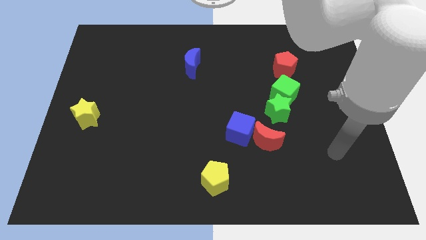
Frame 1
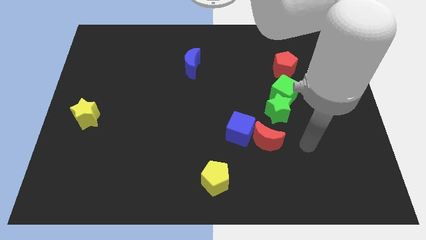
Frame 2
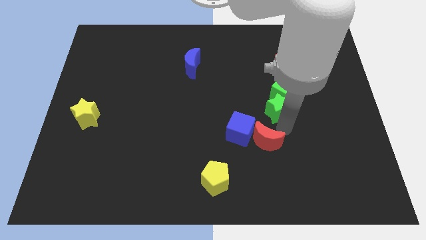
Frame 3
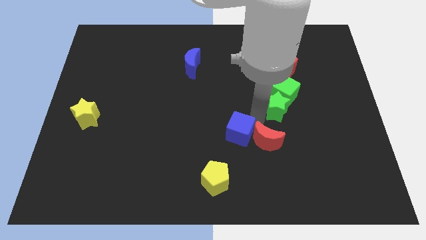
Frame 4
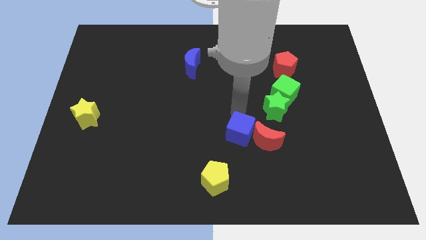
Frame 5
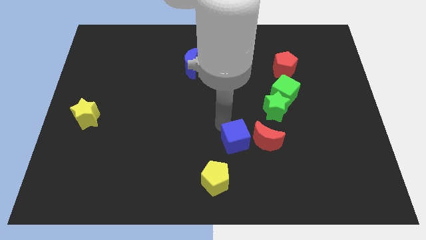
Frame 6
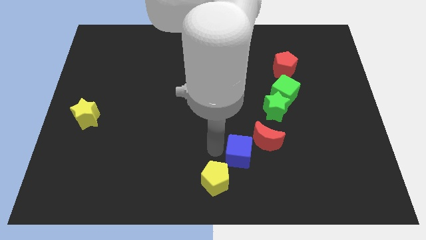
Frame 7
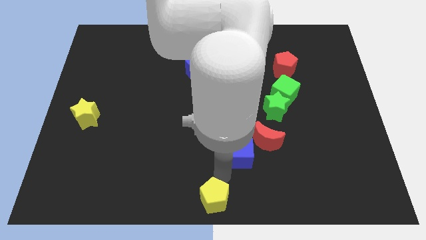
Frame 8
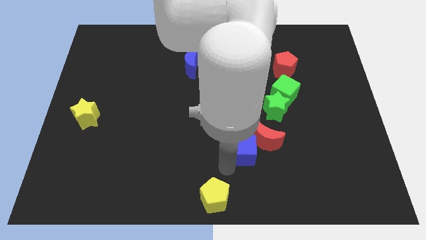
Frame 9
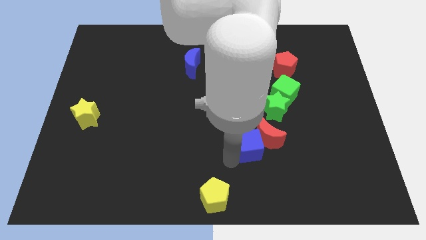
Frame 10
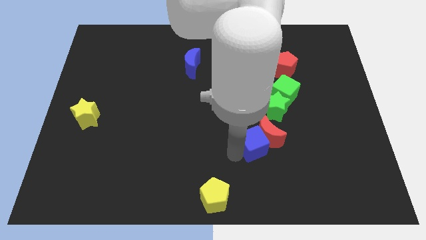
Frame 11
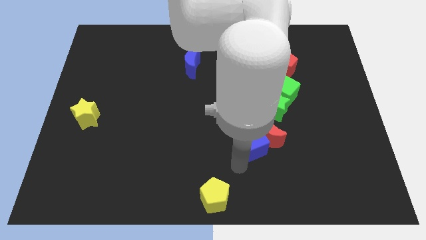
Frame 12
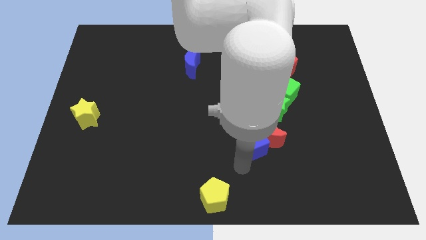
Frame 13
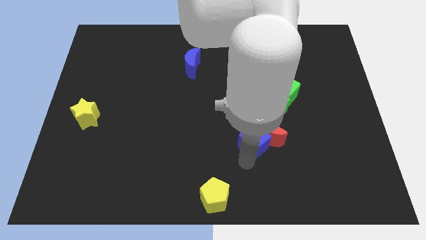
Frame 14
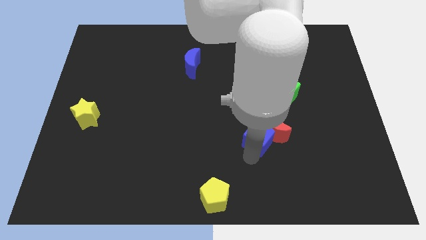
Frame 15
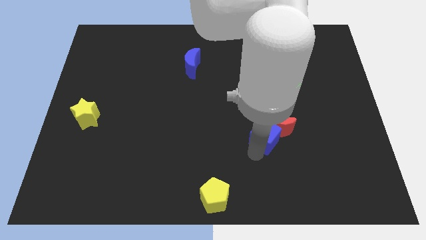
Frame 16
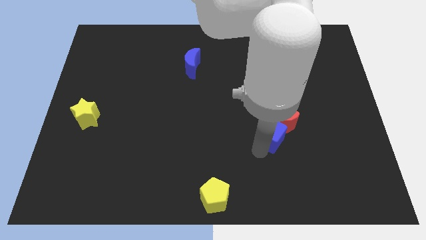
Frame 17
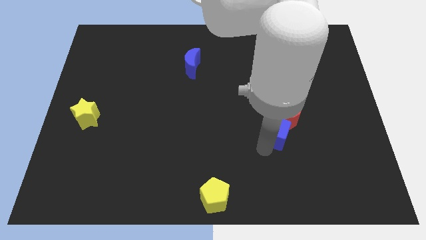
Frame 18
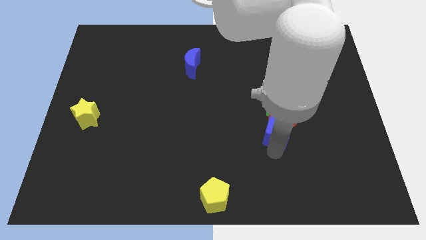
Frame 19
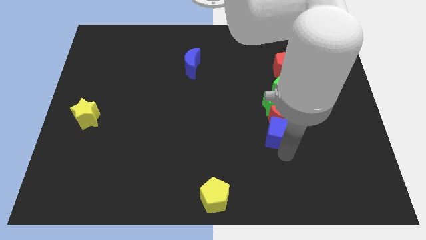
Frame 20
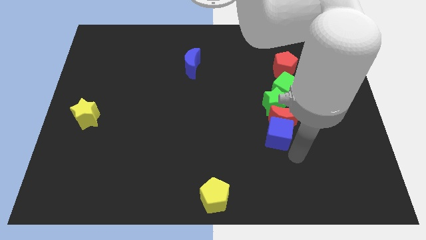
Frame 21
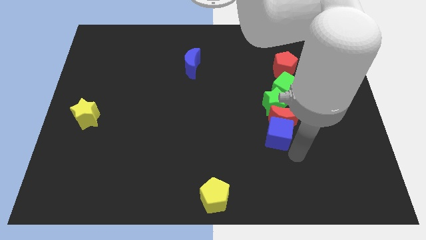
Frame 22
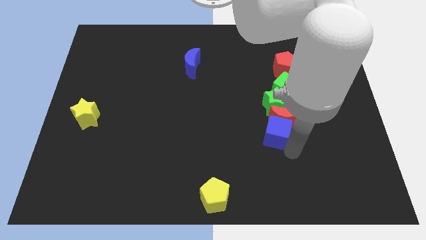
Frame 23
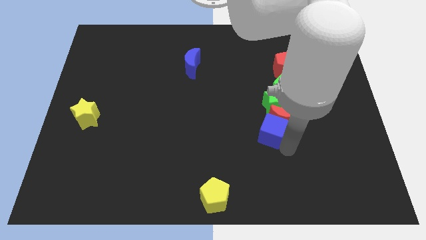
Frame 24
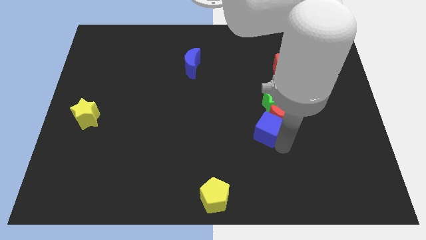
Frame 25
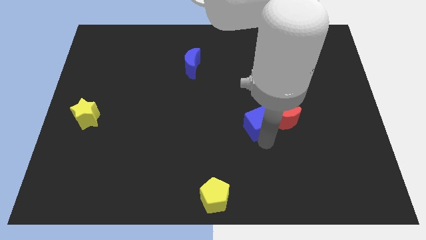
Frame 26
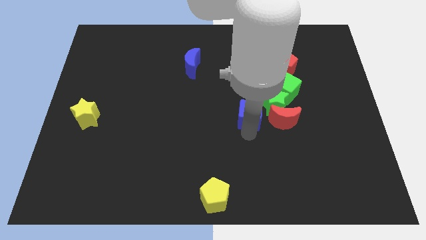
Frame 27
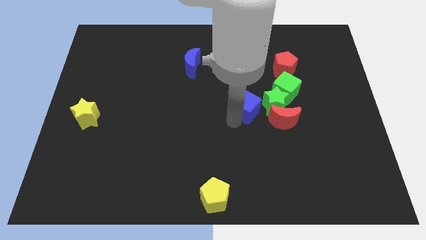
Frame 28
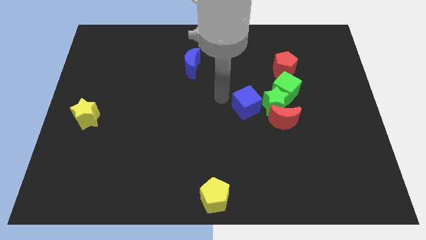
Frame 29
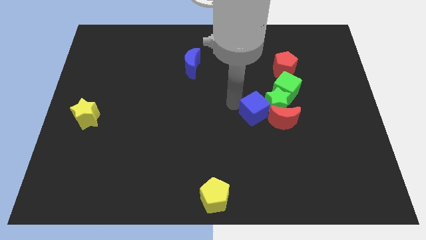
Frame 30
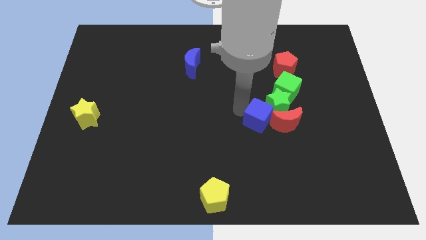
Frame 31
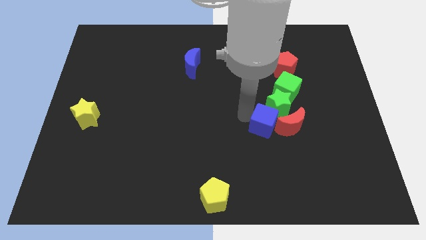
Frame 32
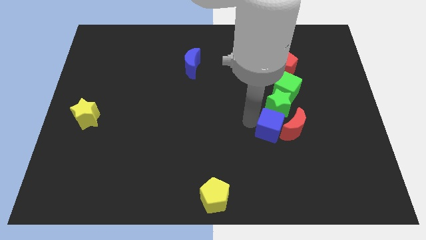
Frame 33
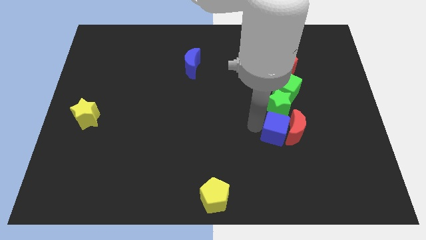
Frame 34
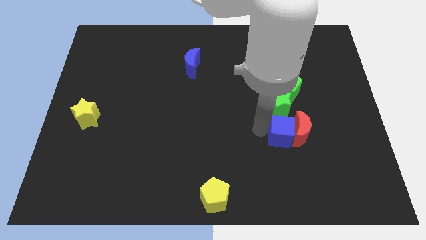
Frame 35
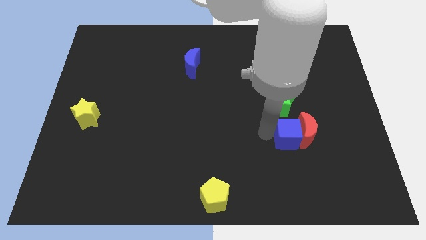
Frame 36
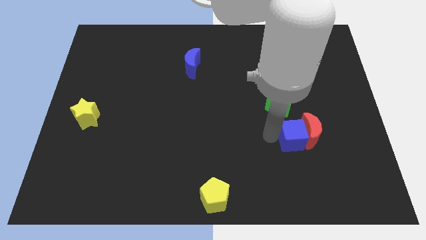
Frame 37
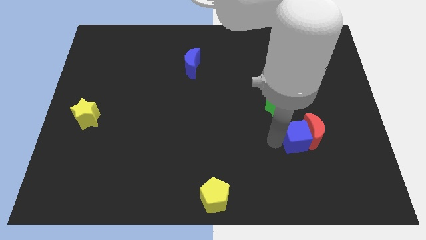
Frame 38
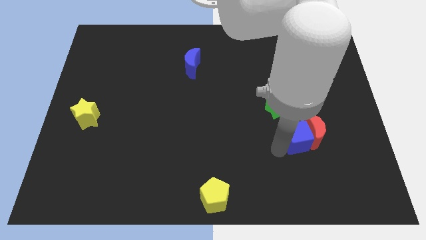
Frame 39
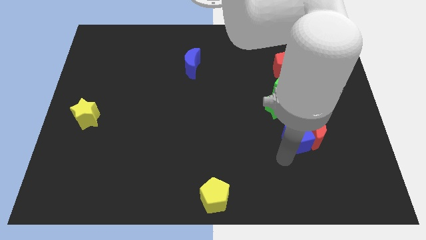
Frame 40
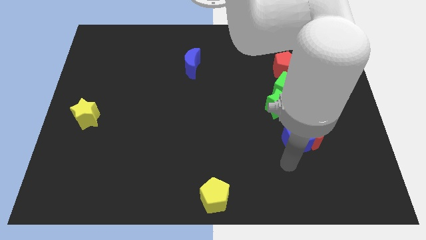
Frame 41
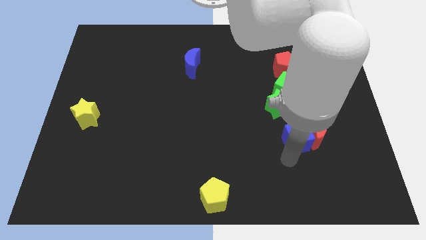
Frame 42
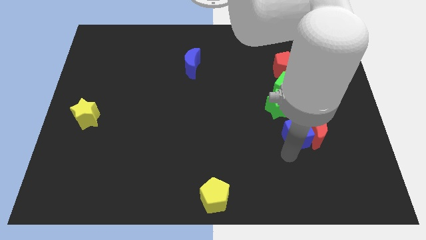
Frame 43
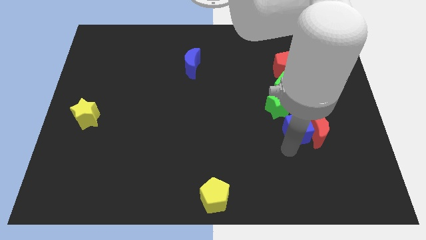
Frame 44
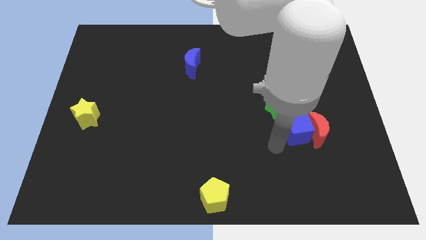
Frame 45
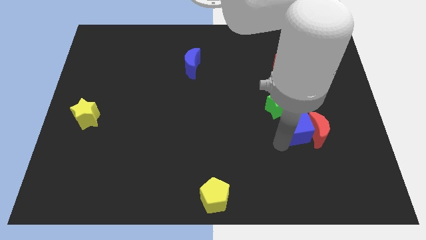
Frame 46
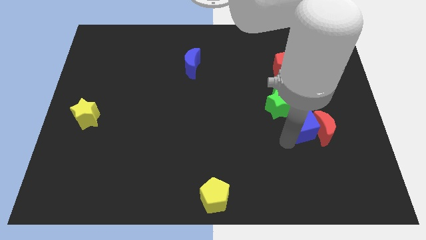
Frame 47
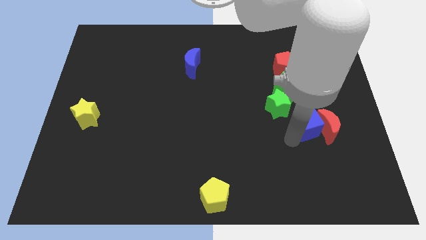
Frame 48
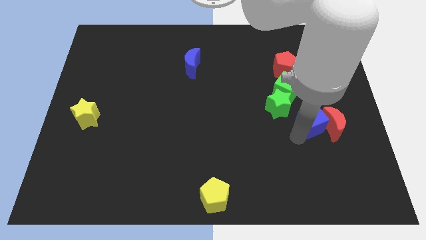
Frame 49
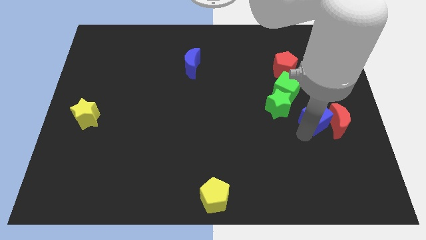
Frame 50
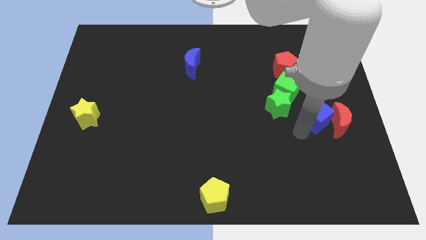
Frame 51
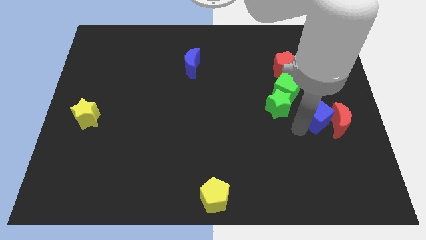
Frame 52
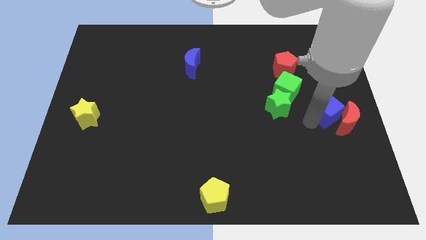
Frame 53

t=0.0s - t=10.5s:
push the blue cube to the right side of the board

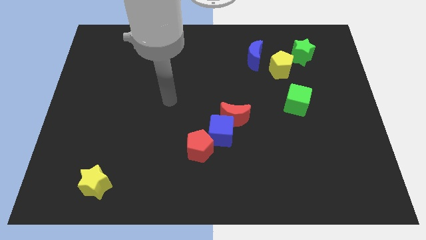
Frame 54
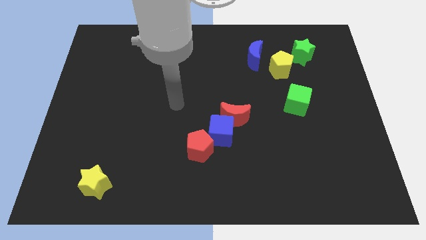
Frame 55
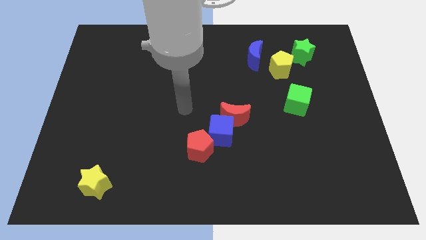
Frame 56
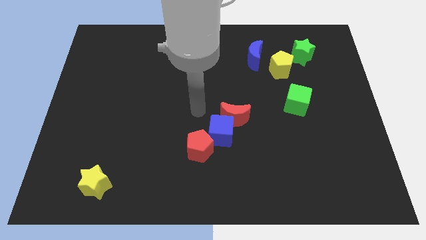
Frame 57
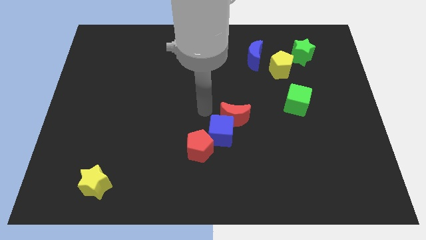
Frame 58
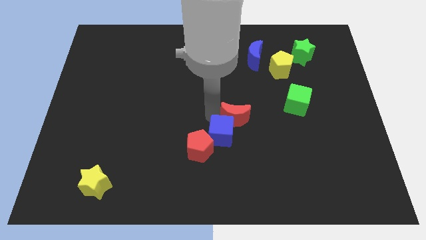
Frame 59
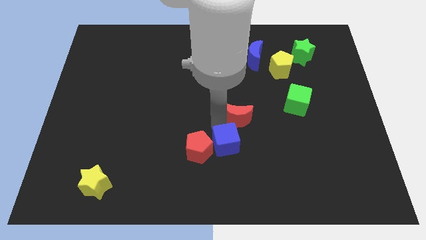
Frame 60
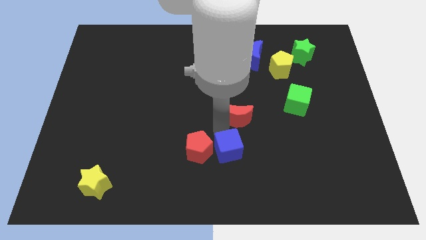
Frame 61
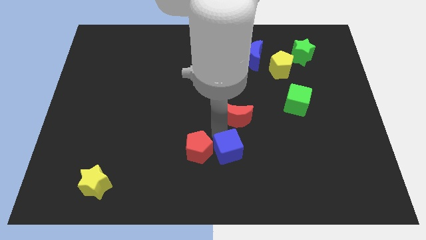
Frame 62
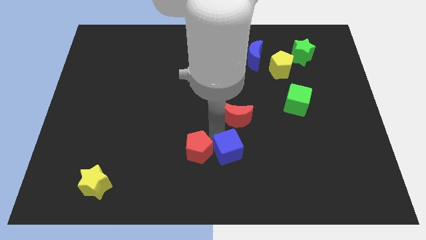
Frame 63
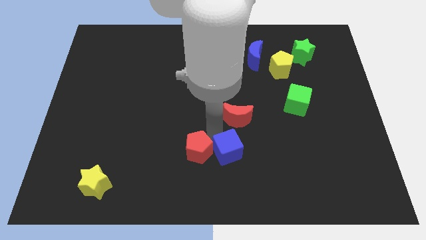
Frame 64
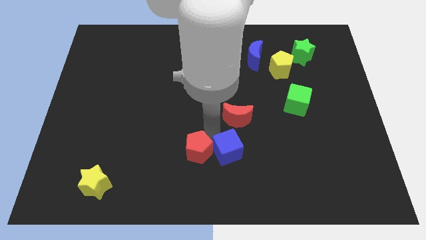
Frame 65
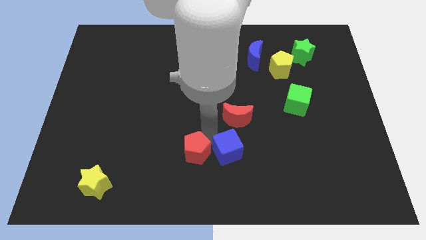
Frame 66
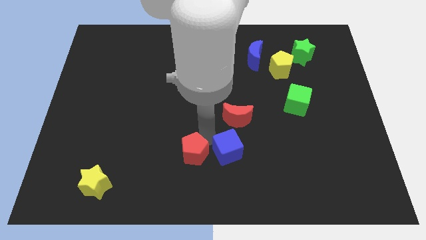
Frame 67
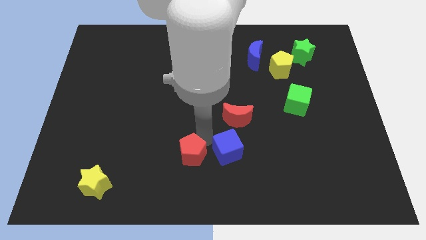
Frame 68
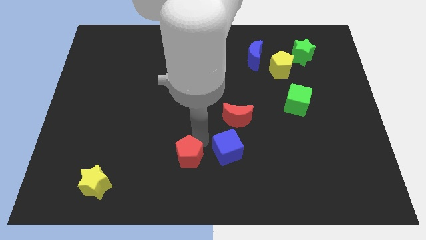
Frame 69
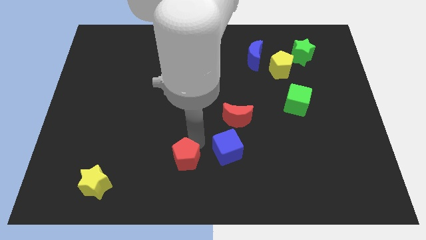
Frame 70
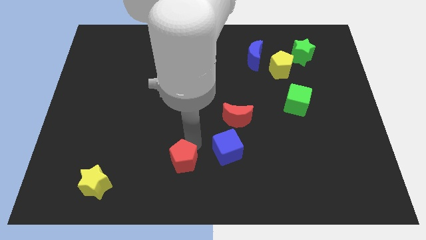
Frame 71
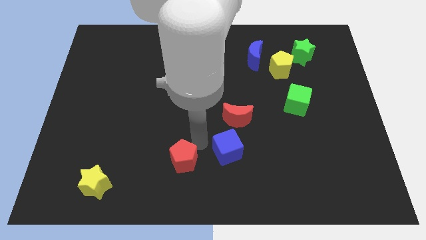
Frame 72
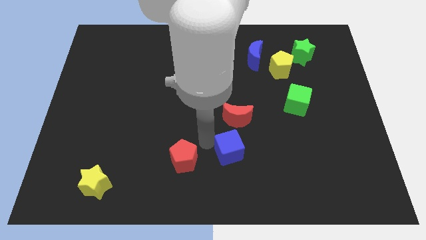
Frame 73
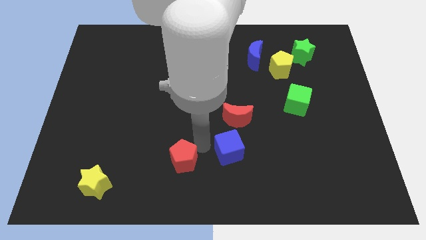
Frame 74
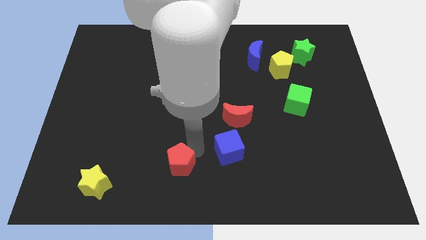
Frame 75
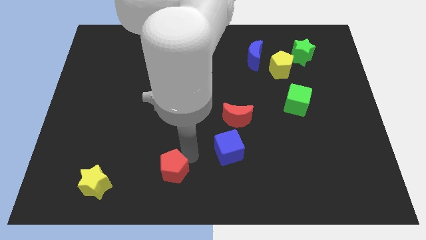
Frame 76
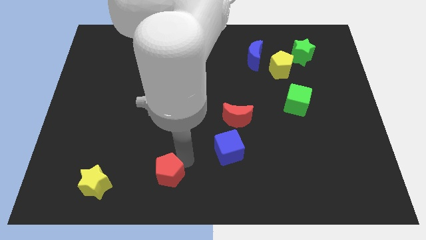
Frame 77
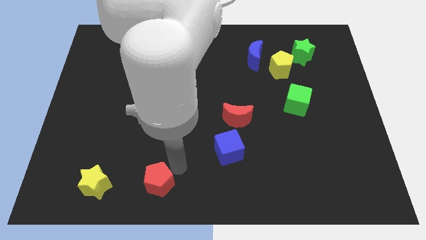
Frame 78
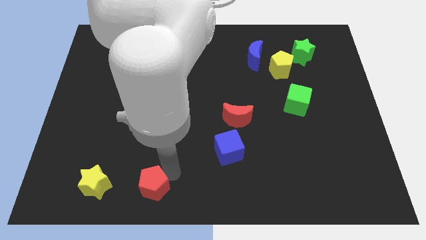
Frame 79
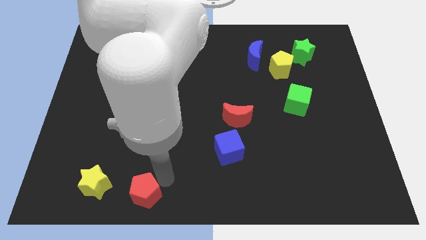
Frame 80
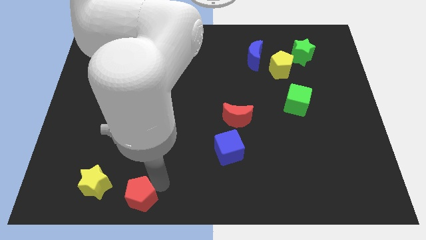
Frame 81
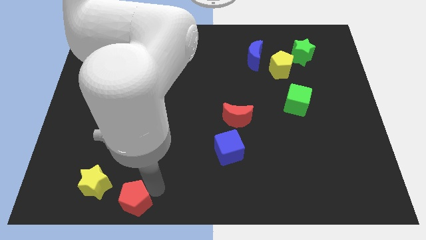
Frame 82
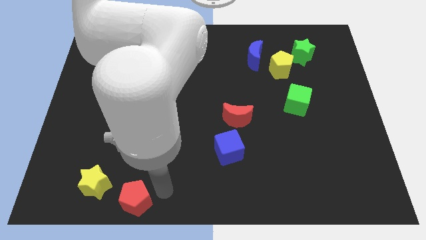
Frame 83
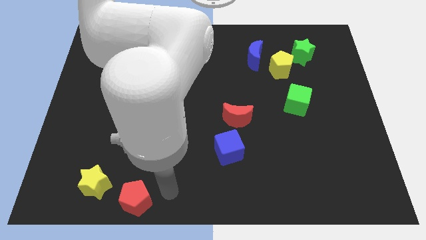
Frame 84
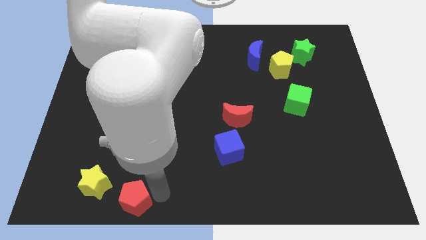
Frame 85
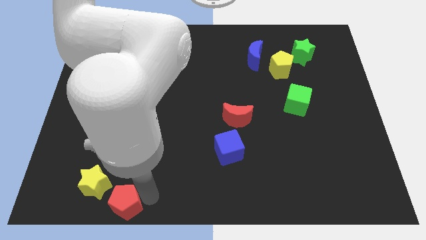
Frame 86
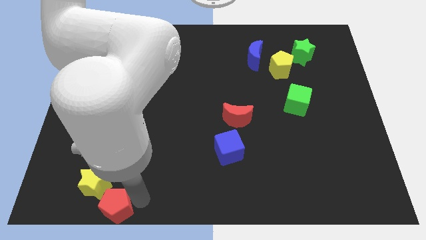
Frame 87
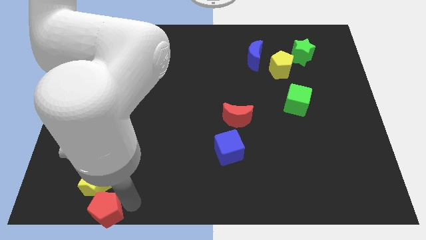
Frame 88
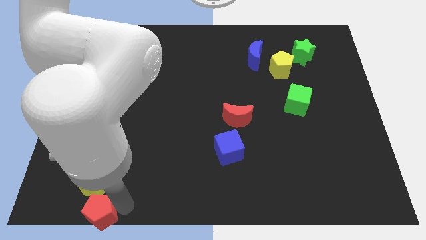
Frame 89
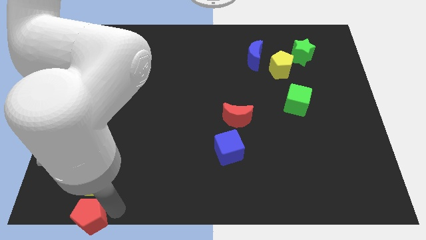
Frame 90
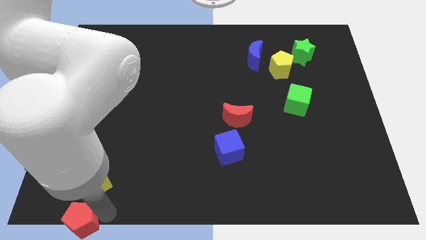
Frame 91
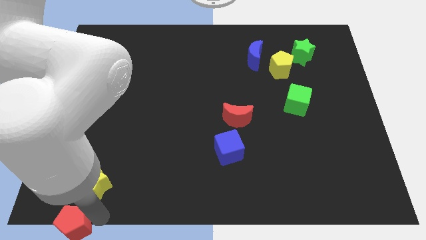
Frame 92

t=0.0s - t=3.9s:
slide the red pentagon to the bottom left corner
